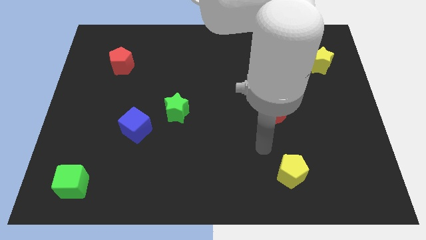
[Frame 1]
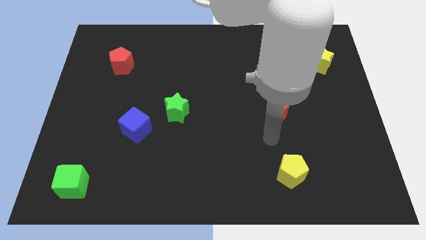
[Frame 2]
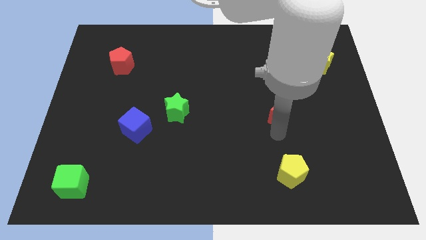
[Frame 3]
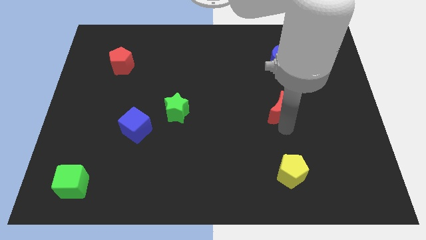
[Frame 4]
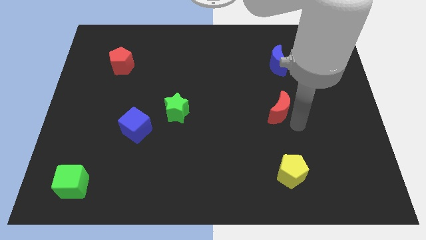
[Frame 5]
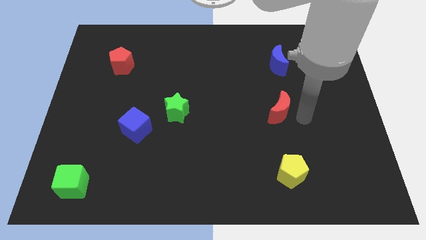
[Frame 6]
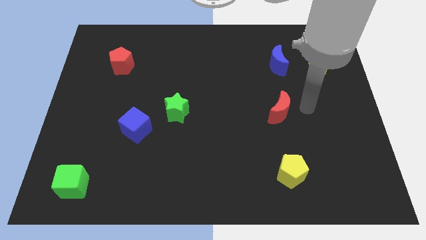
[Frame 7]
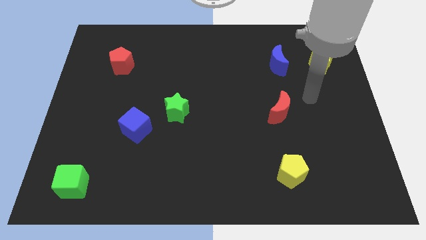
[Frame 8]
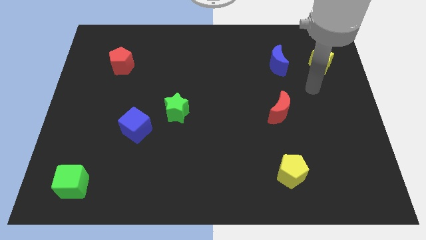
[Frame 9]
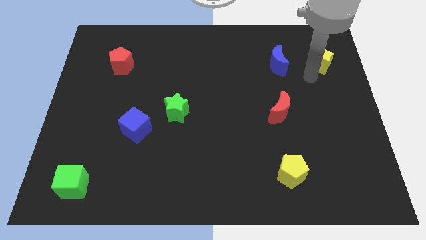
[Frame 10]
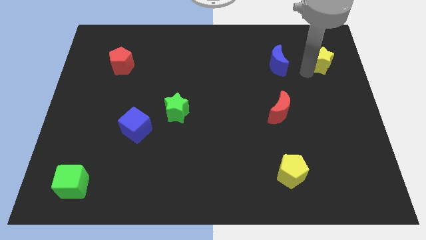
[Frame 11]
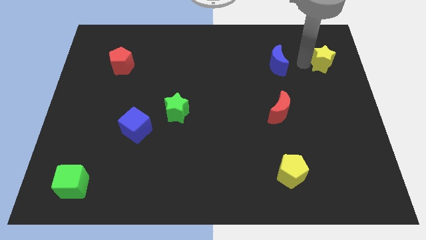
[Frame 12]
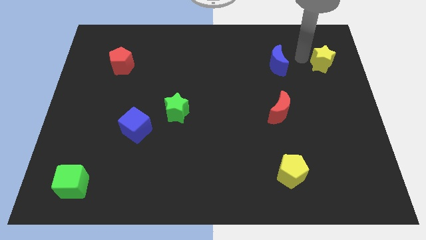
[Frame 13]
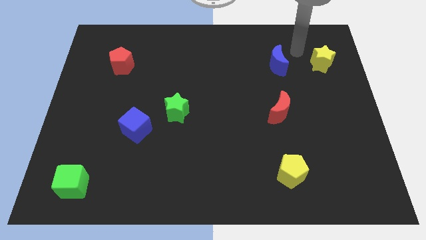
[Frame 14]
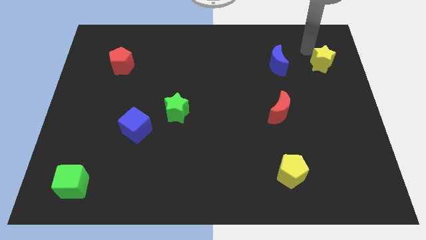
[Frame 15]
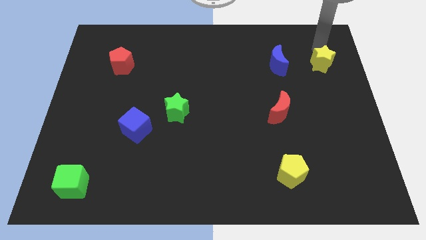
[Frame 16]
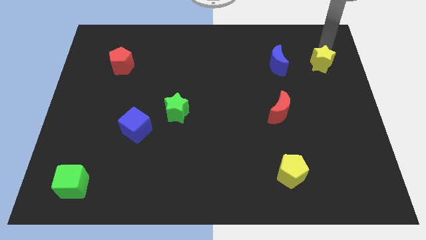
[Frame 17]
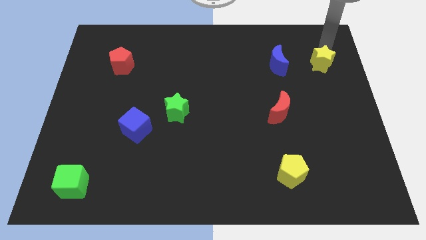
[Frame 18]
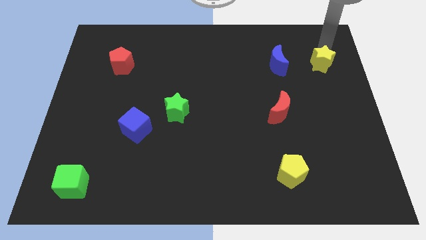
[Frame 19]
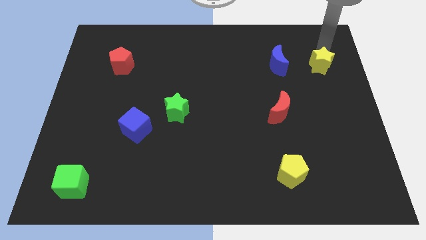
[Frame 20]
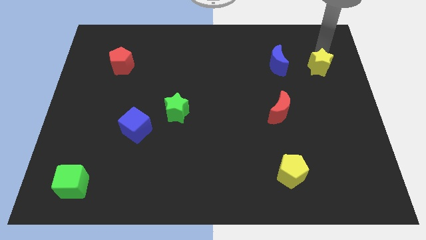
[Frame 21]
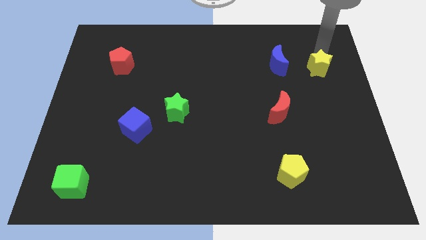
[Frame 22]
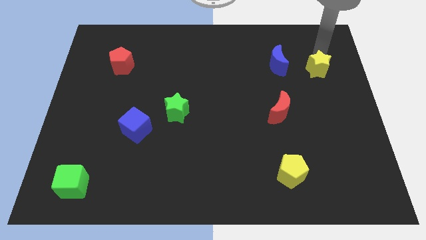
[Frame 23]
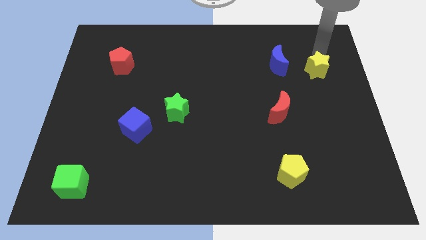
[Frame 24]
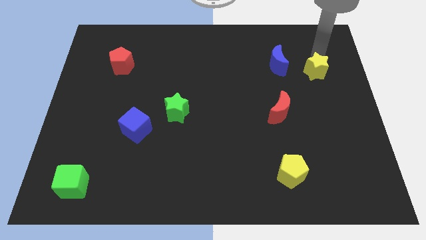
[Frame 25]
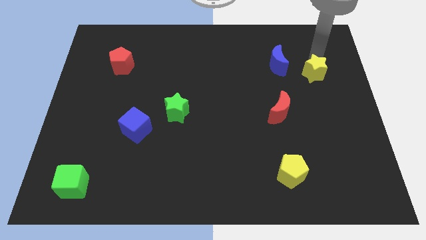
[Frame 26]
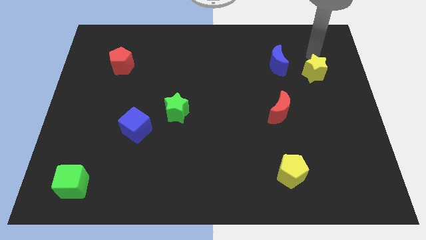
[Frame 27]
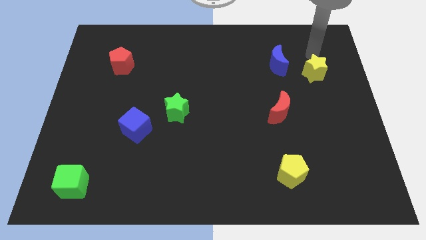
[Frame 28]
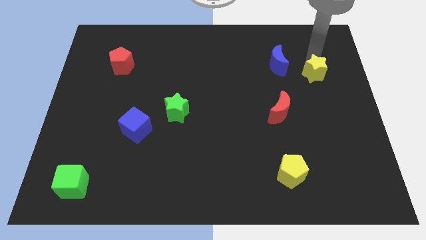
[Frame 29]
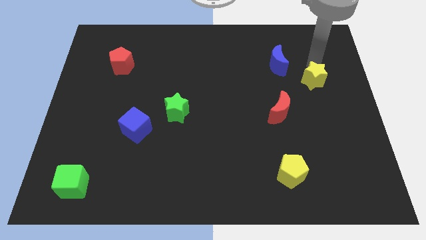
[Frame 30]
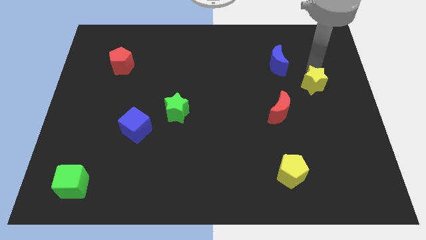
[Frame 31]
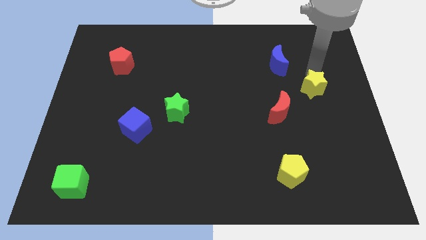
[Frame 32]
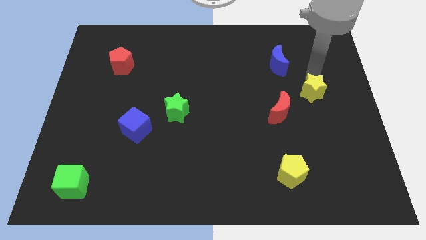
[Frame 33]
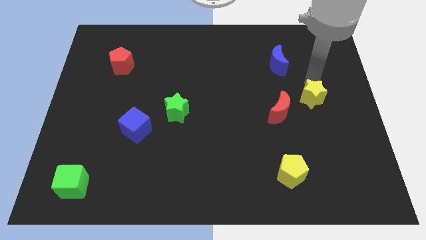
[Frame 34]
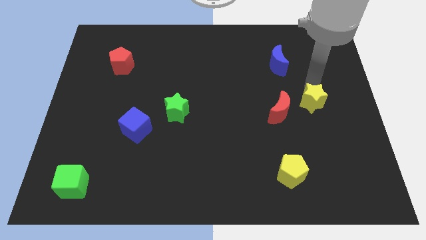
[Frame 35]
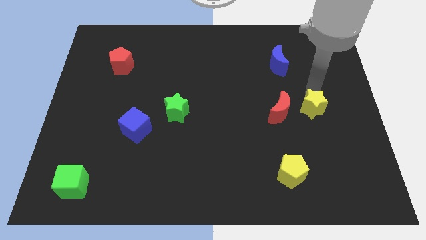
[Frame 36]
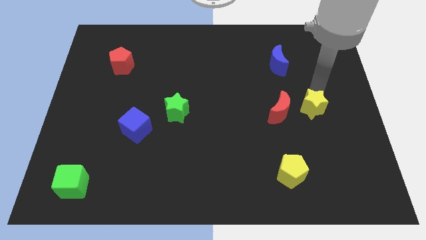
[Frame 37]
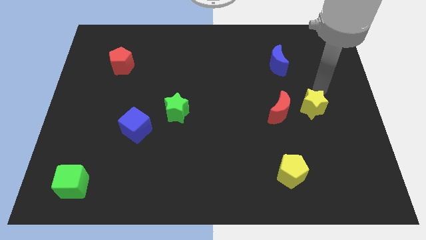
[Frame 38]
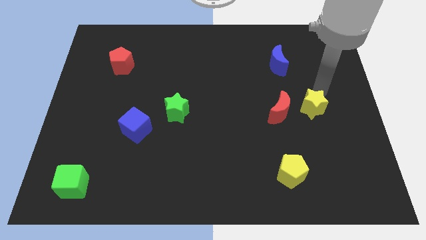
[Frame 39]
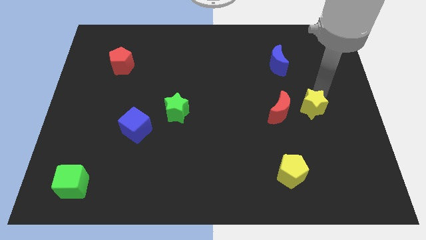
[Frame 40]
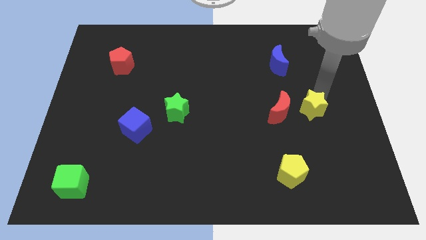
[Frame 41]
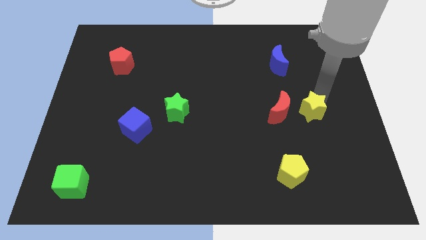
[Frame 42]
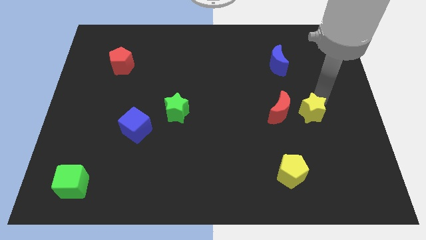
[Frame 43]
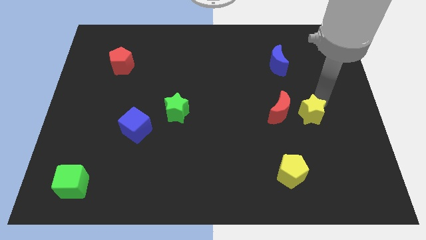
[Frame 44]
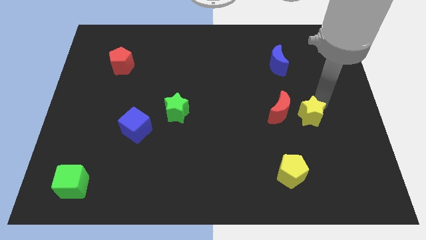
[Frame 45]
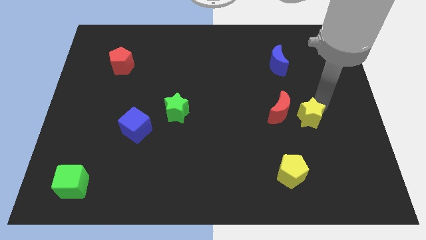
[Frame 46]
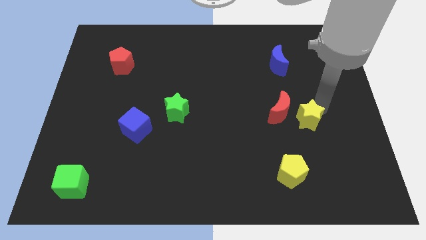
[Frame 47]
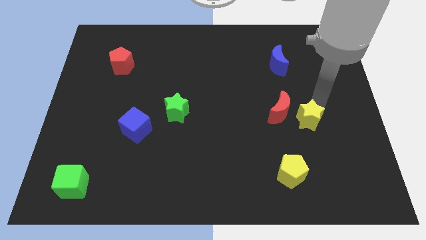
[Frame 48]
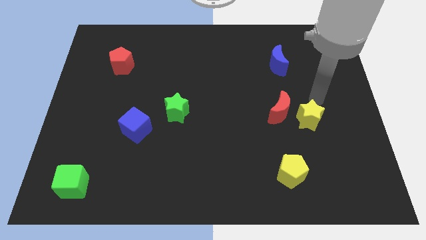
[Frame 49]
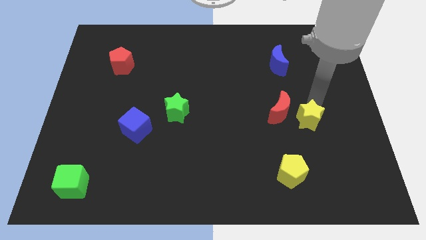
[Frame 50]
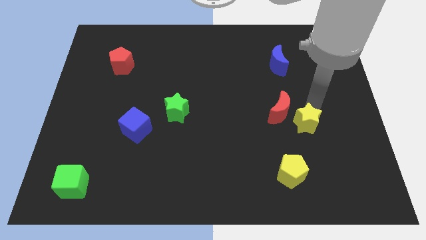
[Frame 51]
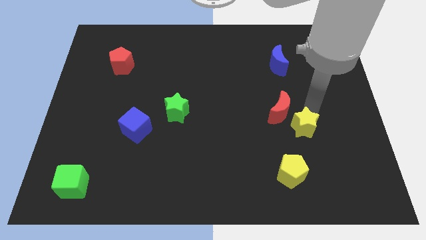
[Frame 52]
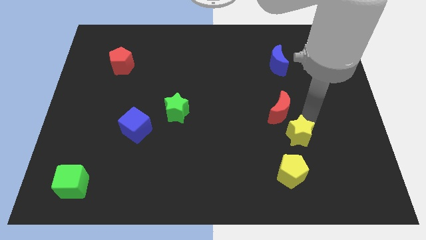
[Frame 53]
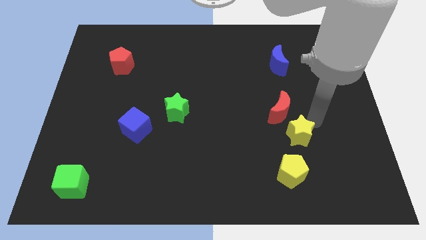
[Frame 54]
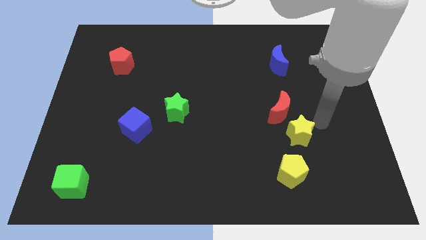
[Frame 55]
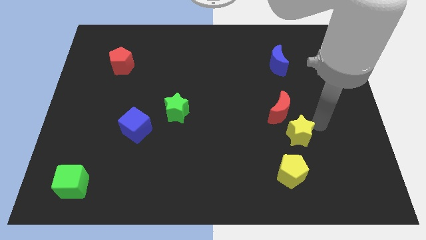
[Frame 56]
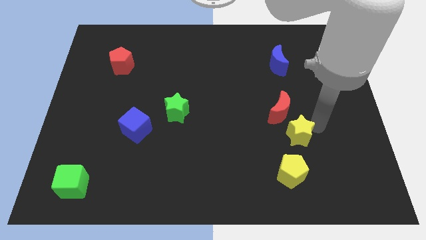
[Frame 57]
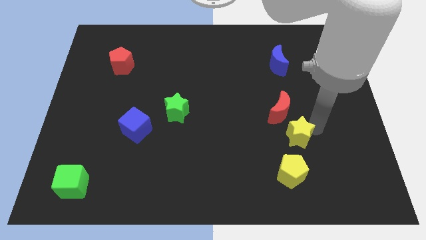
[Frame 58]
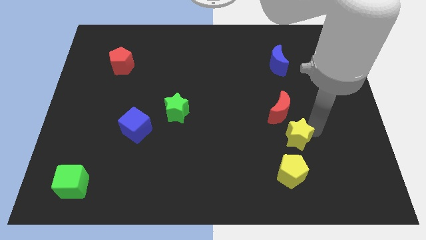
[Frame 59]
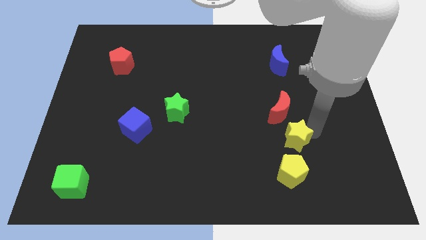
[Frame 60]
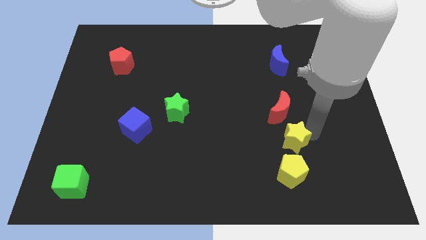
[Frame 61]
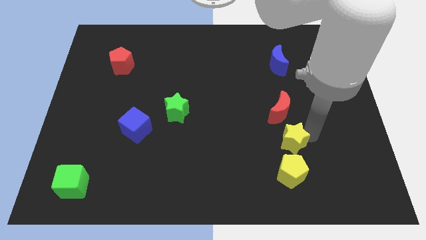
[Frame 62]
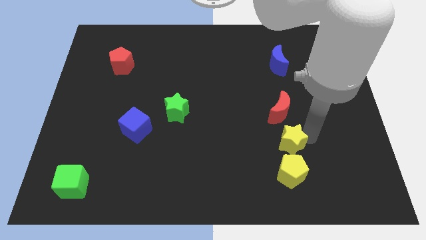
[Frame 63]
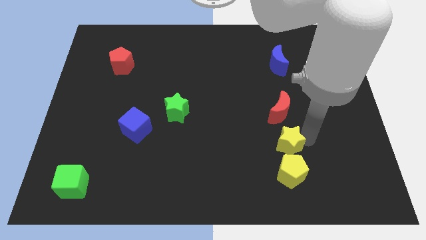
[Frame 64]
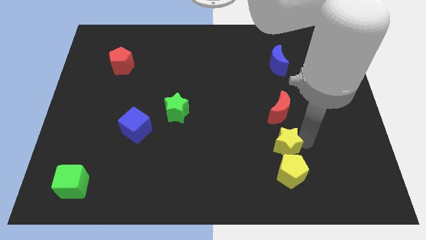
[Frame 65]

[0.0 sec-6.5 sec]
slide the yellow star to the top left of the yellow pentagon

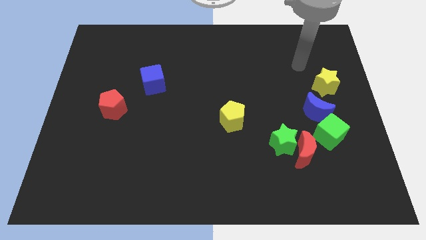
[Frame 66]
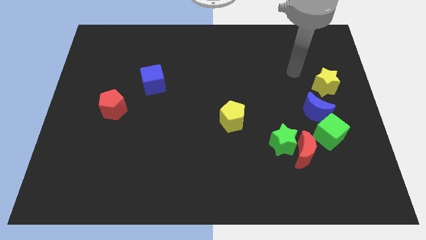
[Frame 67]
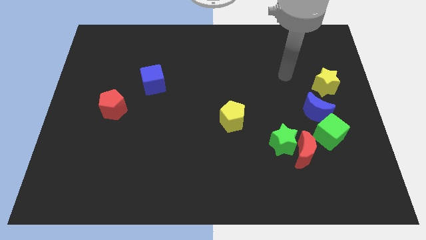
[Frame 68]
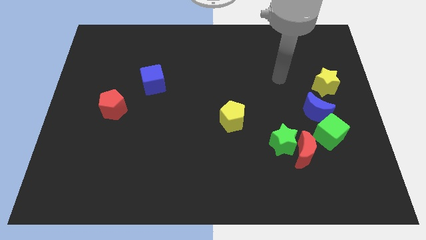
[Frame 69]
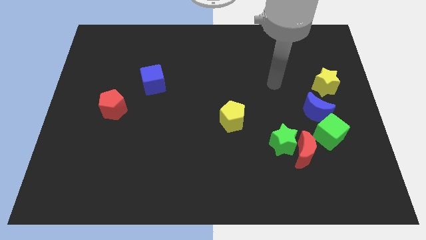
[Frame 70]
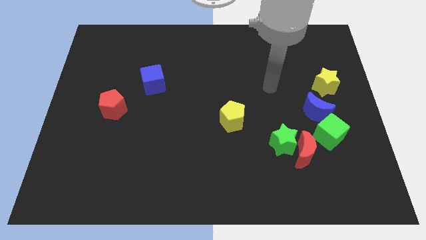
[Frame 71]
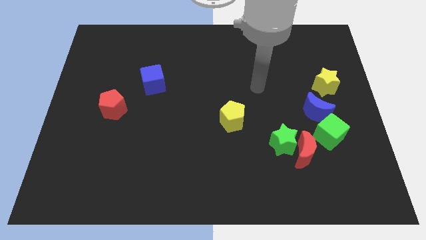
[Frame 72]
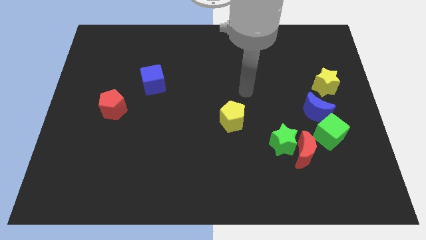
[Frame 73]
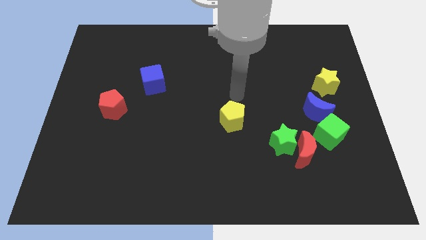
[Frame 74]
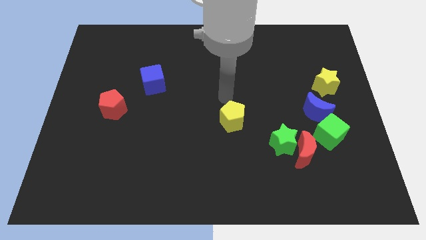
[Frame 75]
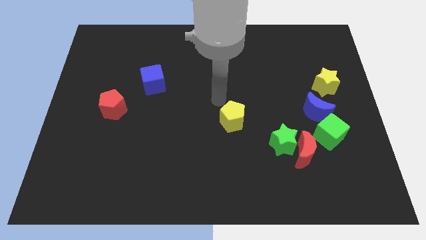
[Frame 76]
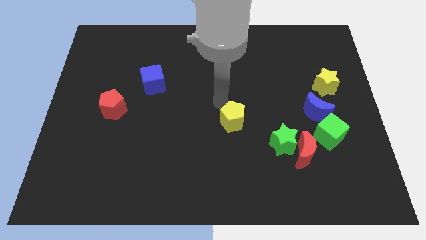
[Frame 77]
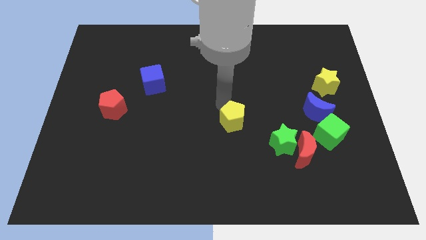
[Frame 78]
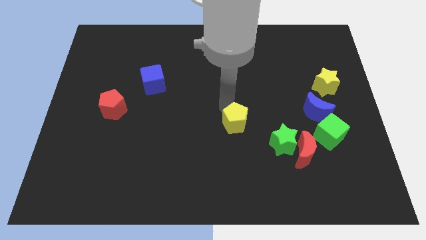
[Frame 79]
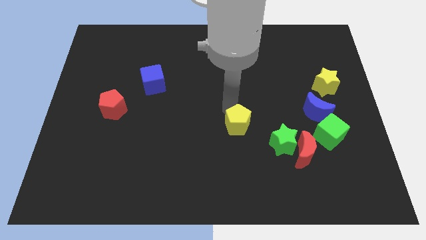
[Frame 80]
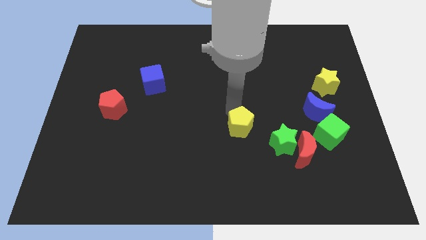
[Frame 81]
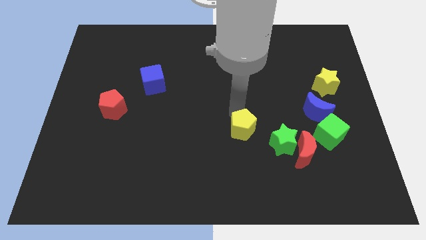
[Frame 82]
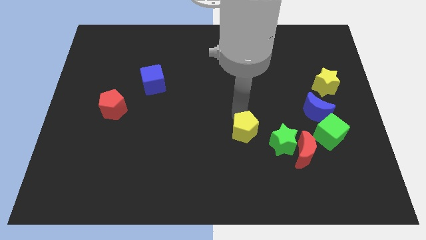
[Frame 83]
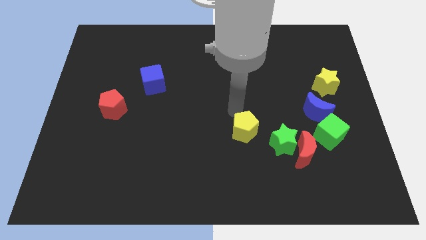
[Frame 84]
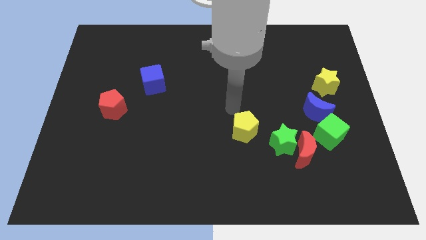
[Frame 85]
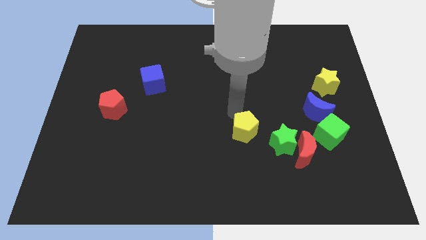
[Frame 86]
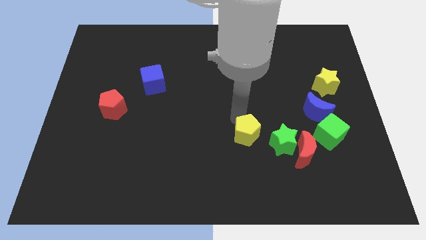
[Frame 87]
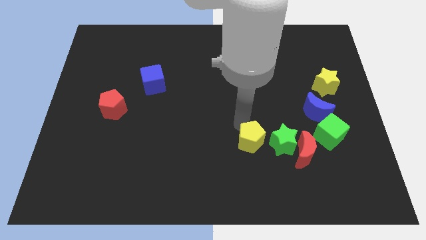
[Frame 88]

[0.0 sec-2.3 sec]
move the yellow pentagon just left of the red moon
